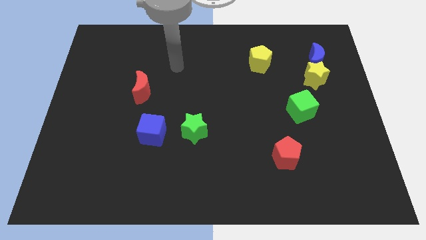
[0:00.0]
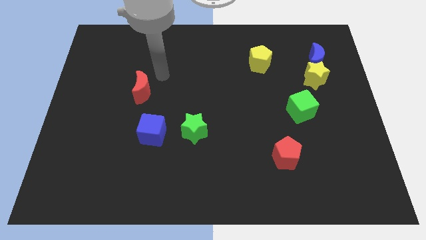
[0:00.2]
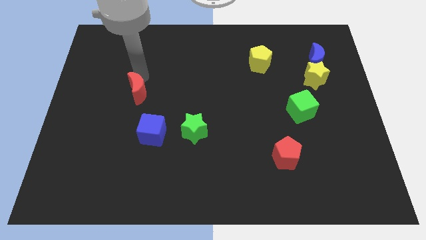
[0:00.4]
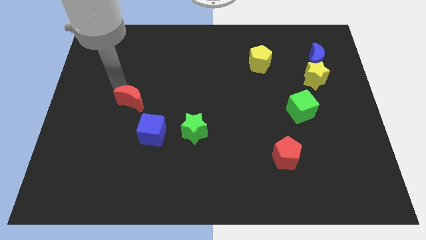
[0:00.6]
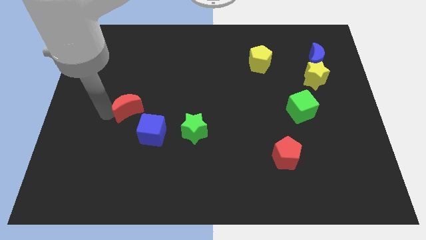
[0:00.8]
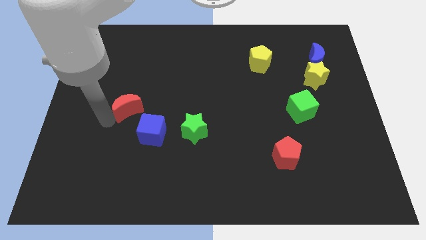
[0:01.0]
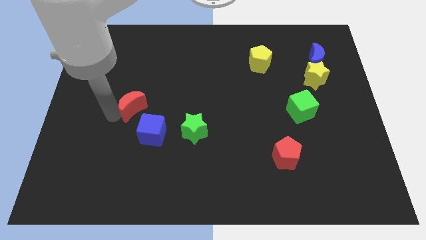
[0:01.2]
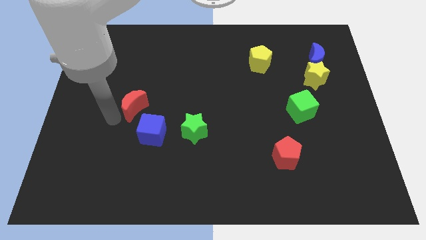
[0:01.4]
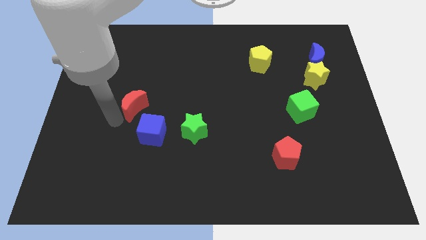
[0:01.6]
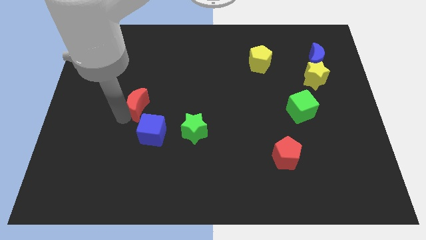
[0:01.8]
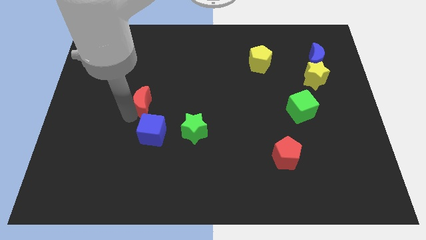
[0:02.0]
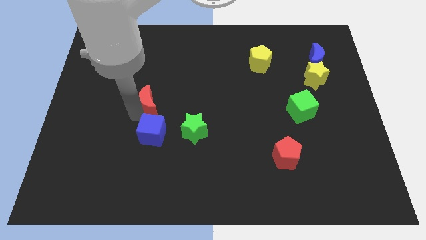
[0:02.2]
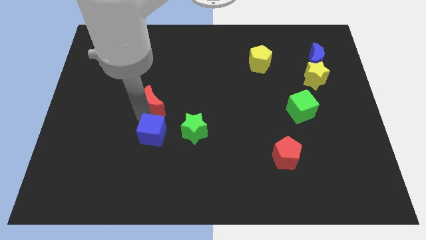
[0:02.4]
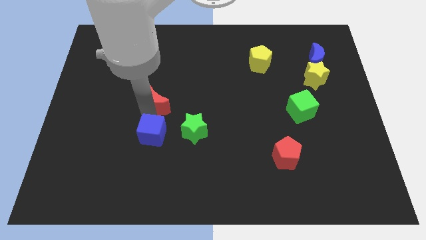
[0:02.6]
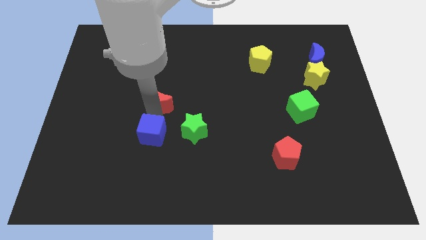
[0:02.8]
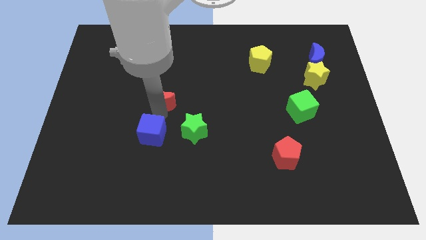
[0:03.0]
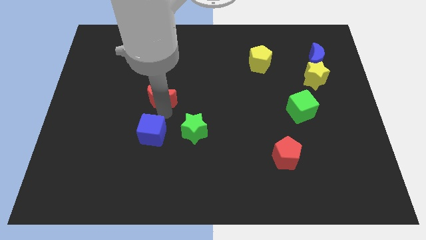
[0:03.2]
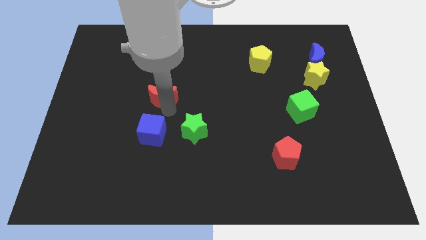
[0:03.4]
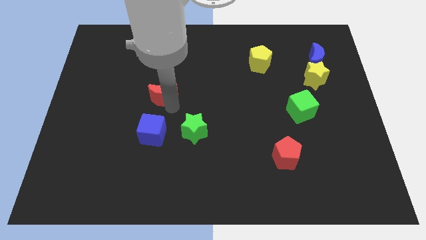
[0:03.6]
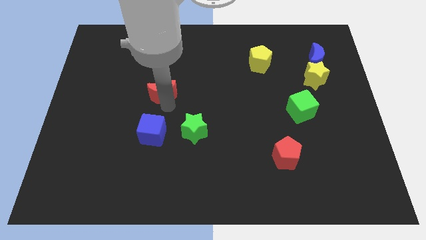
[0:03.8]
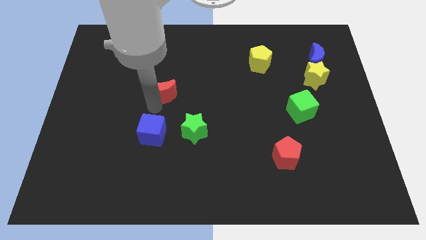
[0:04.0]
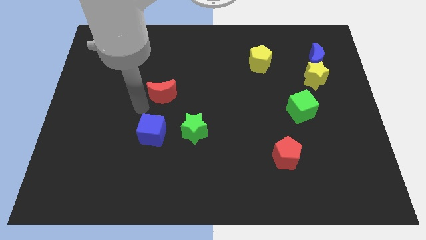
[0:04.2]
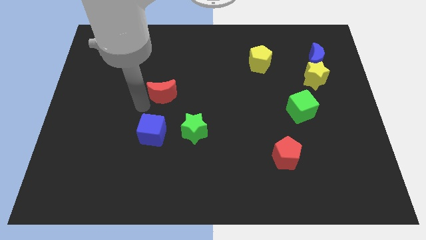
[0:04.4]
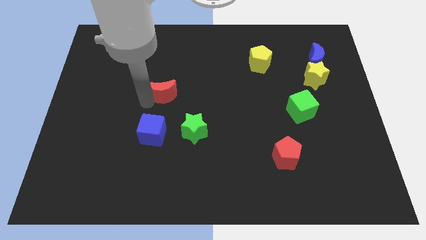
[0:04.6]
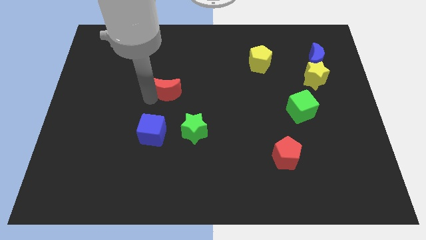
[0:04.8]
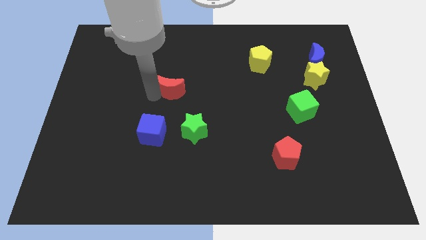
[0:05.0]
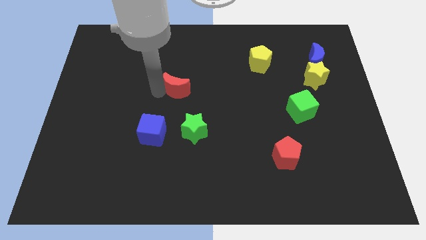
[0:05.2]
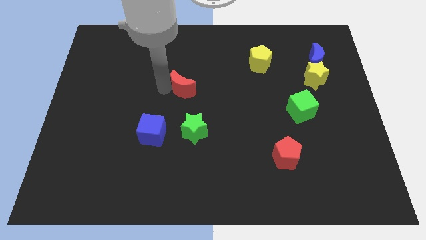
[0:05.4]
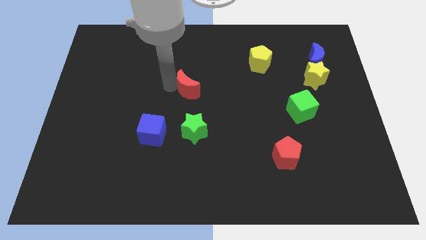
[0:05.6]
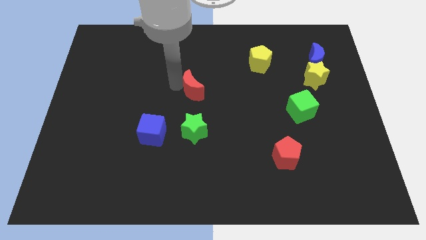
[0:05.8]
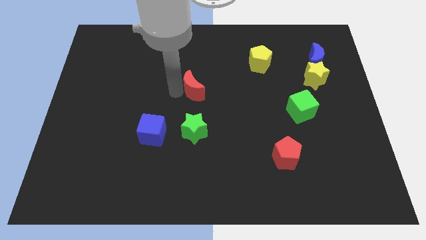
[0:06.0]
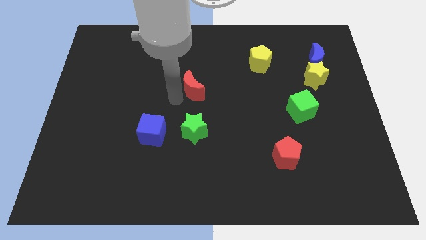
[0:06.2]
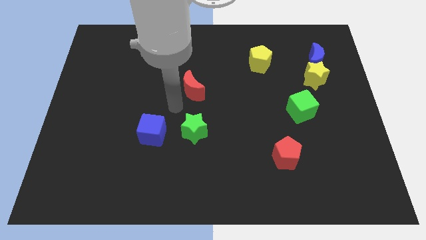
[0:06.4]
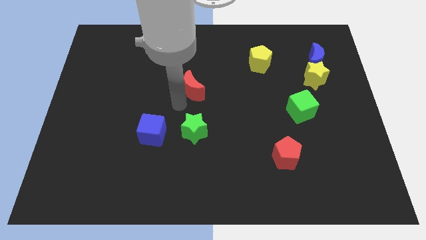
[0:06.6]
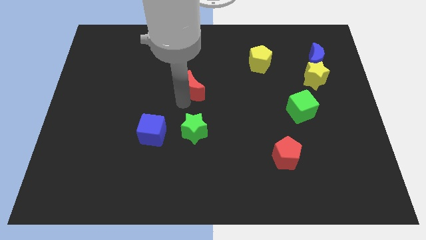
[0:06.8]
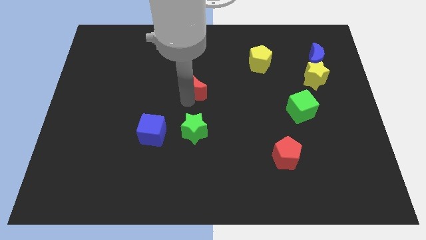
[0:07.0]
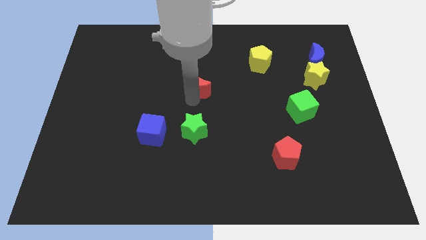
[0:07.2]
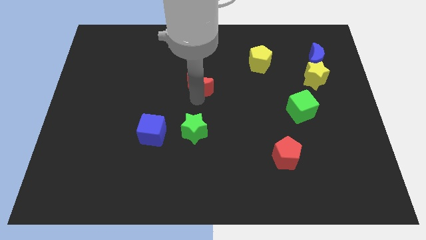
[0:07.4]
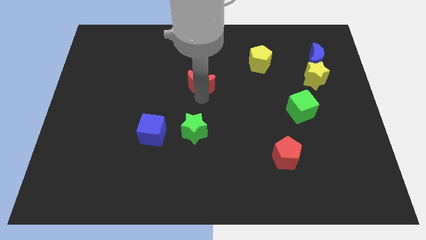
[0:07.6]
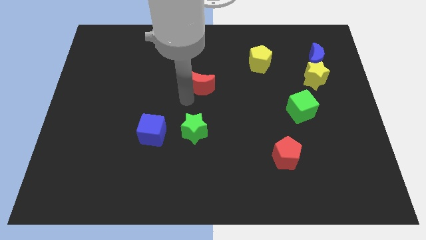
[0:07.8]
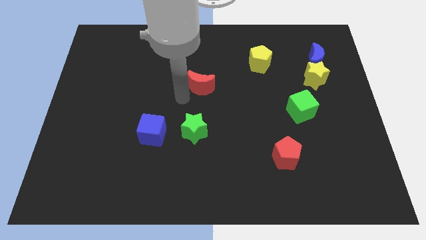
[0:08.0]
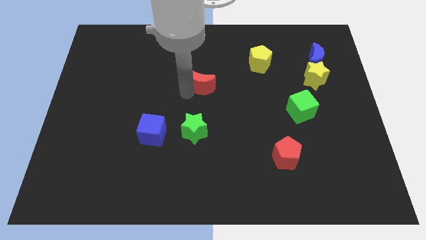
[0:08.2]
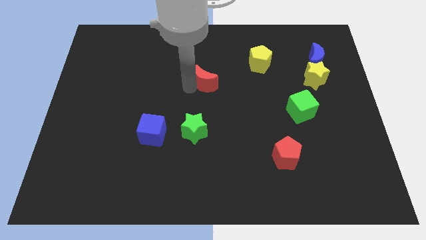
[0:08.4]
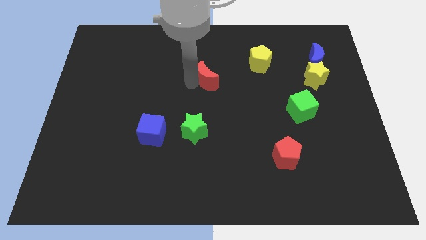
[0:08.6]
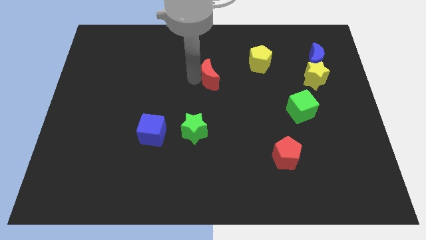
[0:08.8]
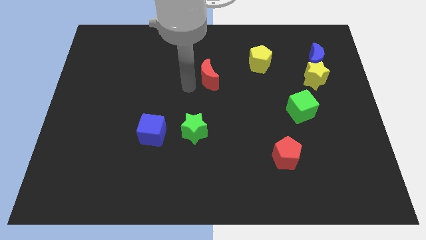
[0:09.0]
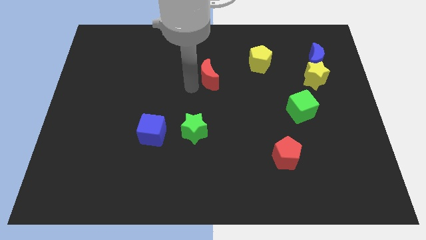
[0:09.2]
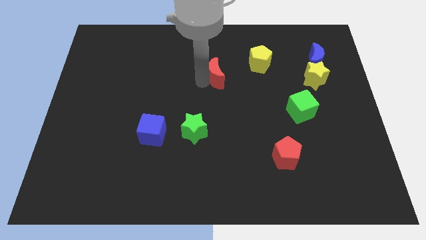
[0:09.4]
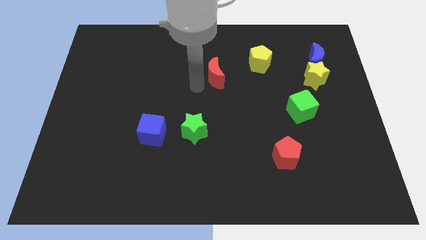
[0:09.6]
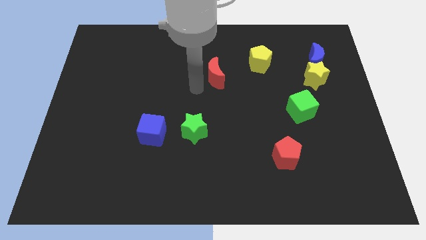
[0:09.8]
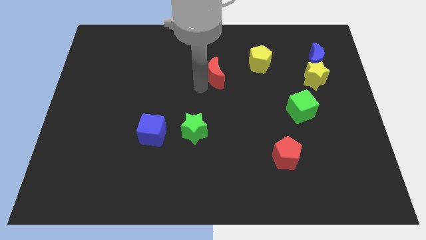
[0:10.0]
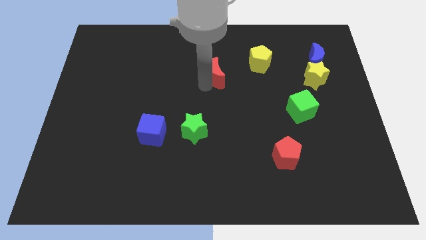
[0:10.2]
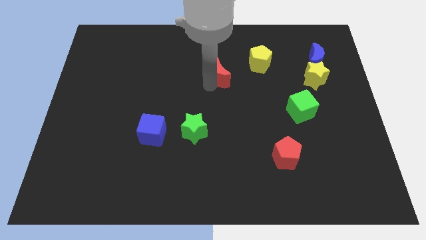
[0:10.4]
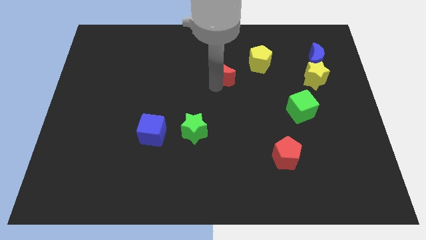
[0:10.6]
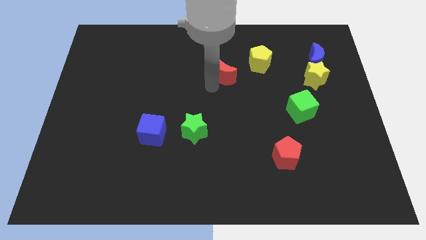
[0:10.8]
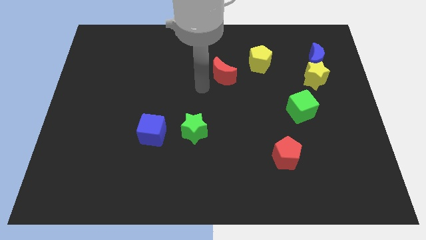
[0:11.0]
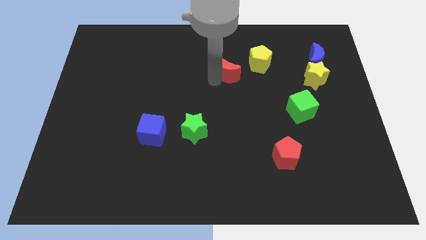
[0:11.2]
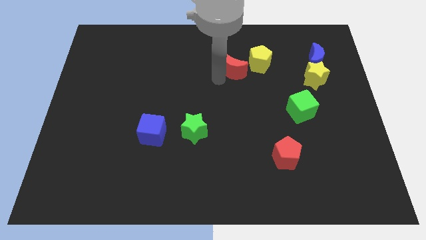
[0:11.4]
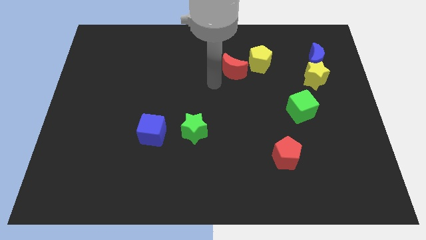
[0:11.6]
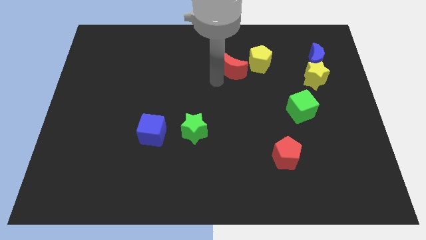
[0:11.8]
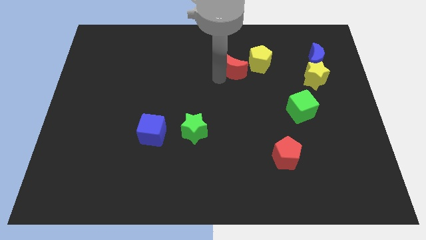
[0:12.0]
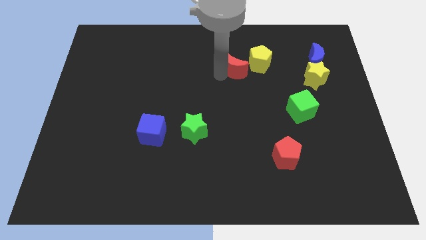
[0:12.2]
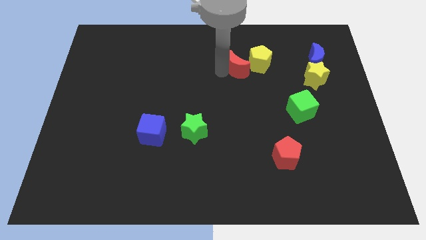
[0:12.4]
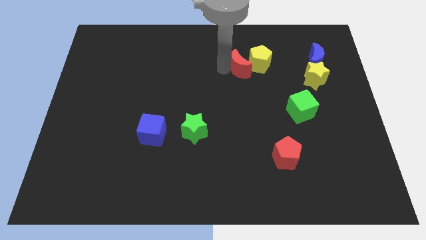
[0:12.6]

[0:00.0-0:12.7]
put the red moon towards the yellow pentagon

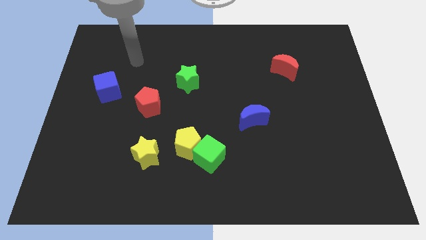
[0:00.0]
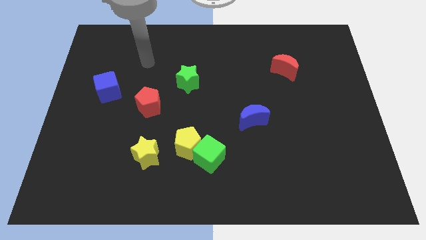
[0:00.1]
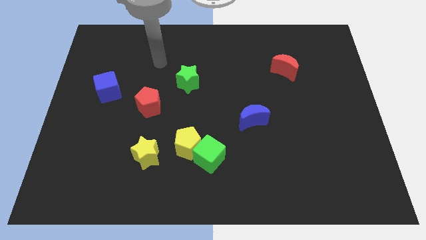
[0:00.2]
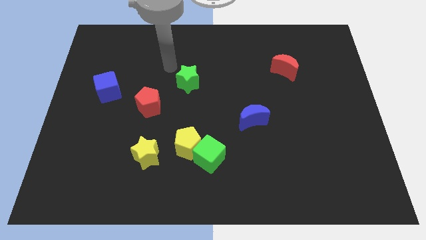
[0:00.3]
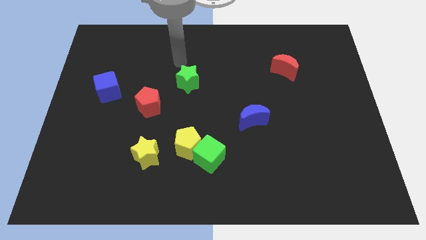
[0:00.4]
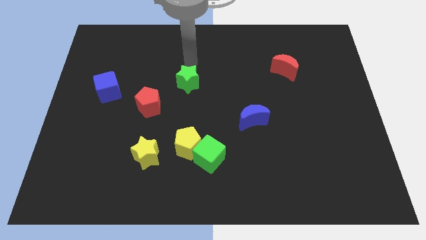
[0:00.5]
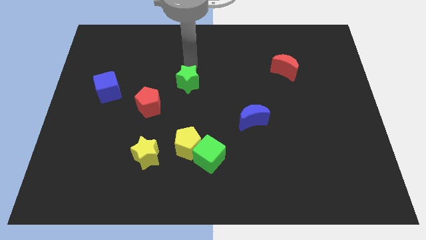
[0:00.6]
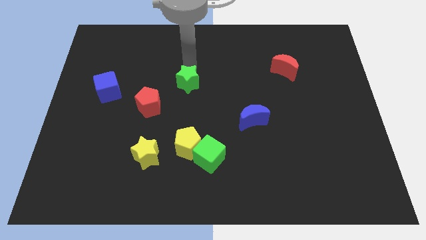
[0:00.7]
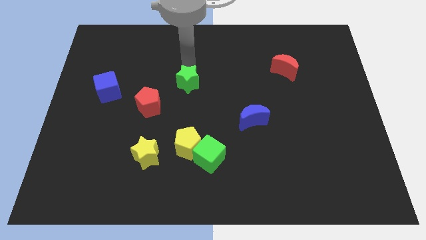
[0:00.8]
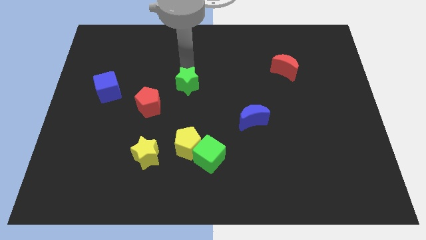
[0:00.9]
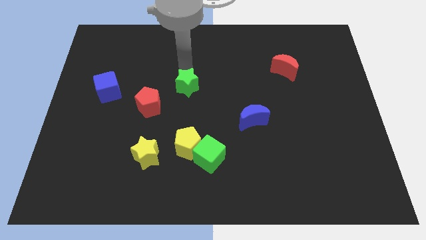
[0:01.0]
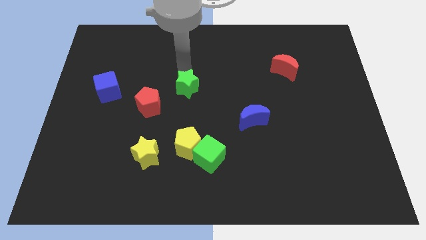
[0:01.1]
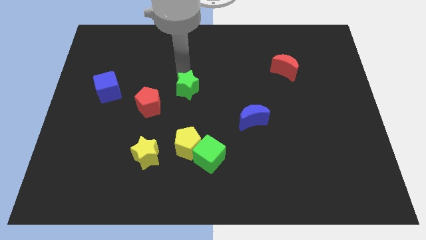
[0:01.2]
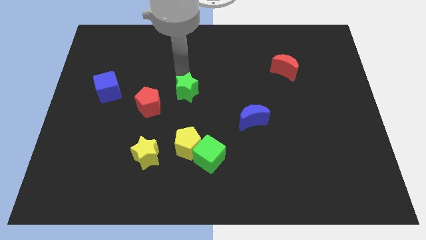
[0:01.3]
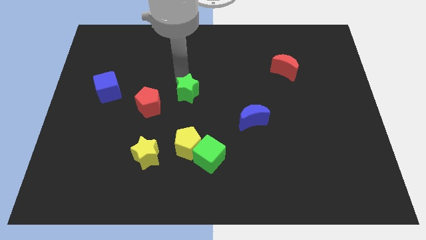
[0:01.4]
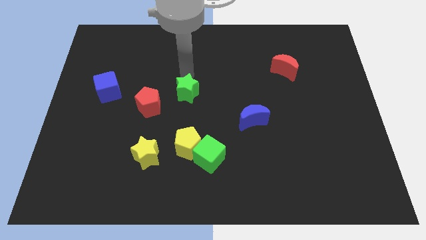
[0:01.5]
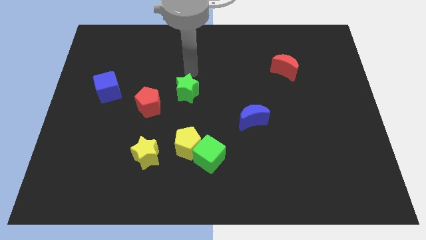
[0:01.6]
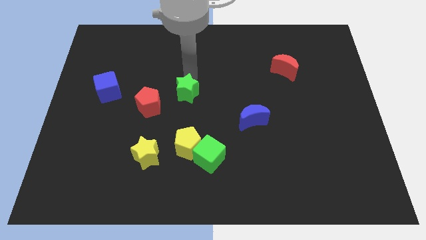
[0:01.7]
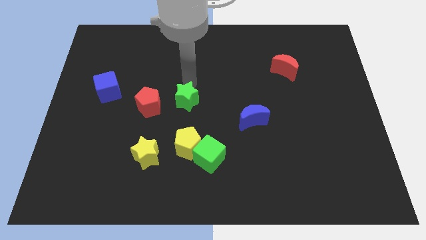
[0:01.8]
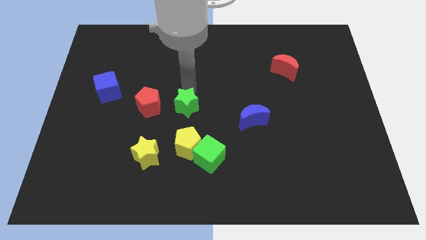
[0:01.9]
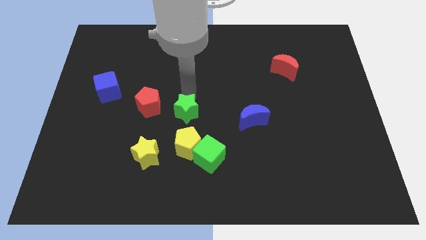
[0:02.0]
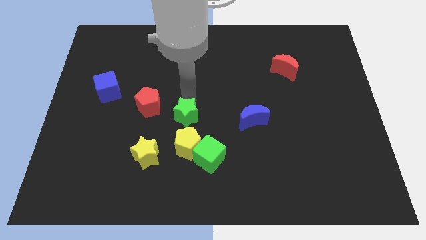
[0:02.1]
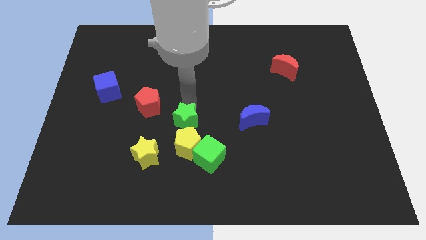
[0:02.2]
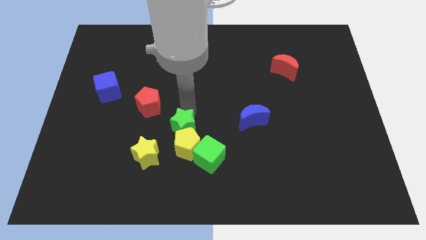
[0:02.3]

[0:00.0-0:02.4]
push the green star close to the yellow pentagon
